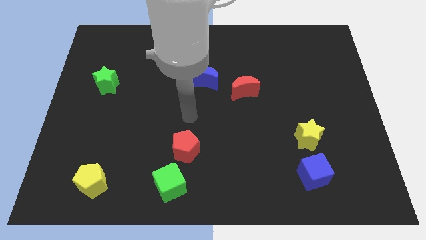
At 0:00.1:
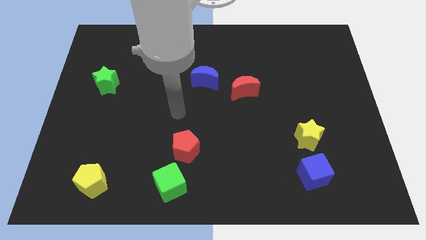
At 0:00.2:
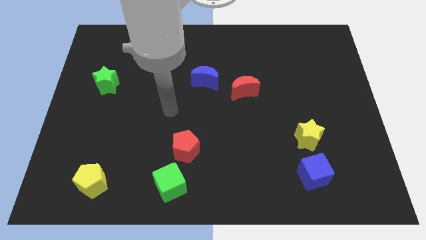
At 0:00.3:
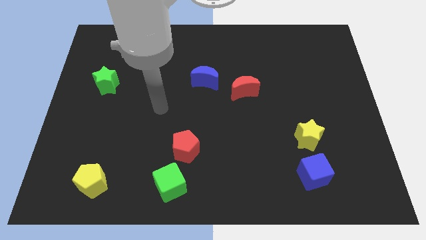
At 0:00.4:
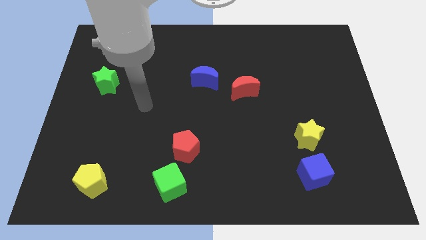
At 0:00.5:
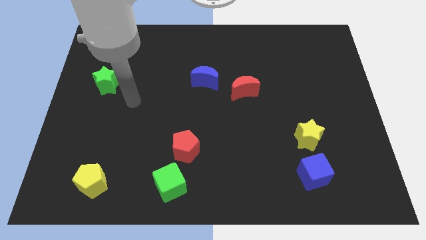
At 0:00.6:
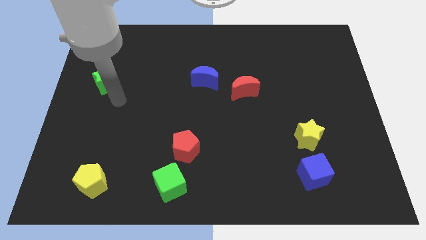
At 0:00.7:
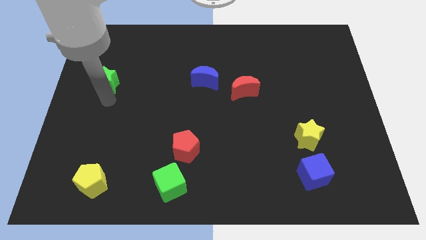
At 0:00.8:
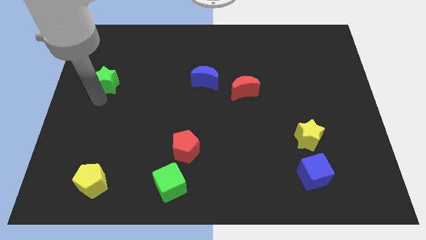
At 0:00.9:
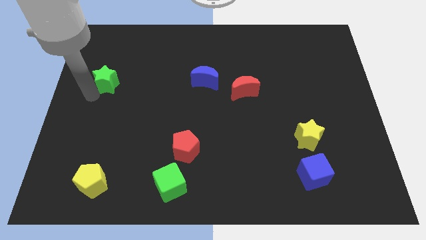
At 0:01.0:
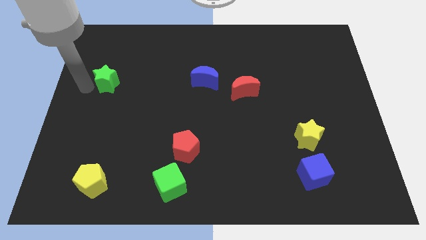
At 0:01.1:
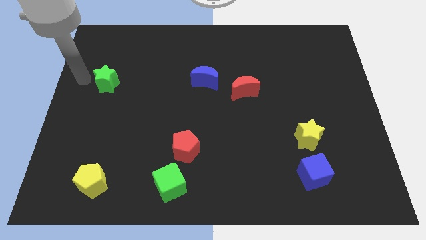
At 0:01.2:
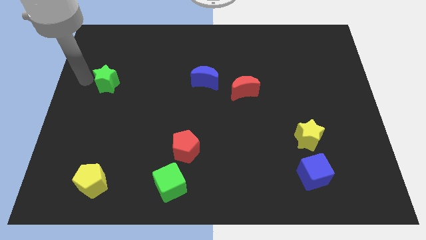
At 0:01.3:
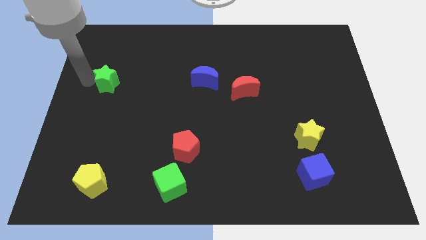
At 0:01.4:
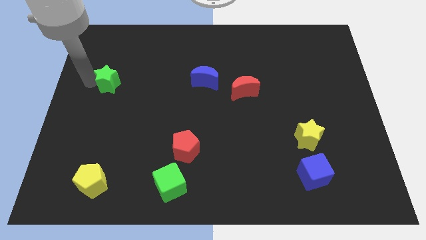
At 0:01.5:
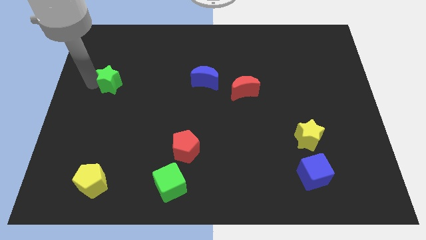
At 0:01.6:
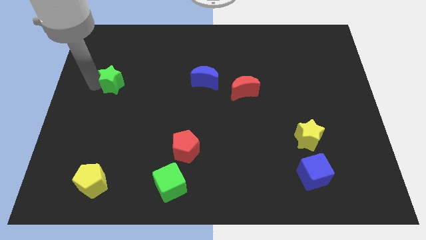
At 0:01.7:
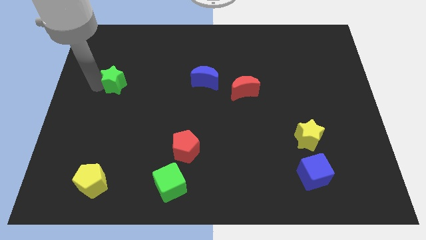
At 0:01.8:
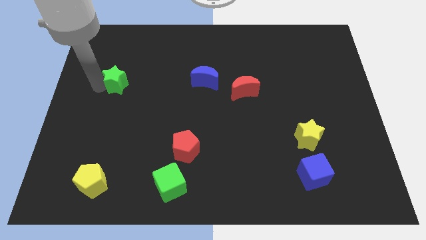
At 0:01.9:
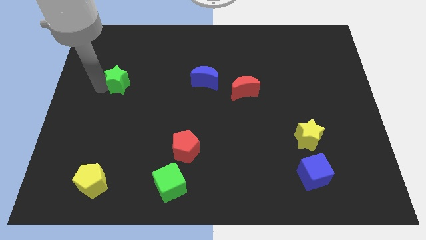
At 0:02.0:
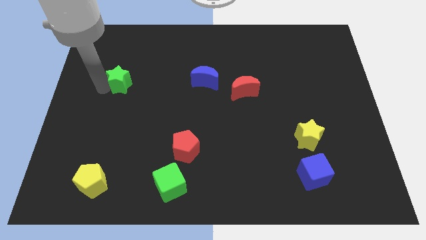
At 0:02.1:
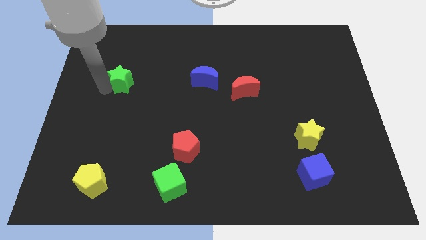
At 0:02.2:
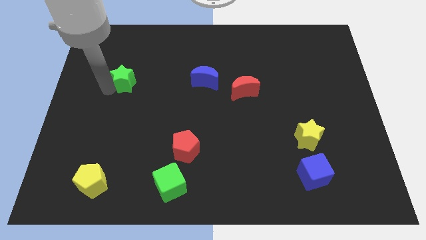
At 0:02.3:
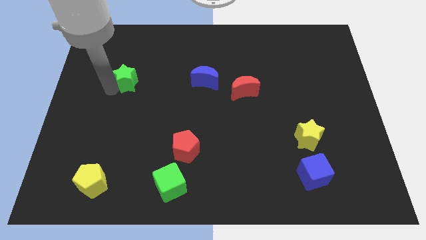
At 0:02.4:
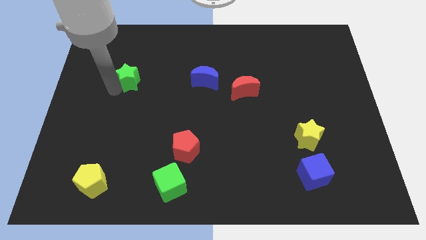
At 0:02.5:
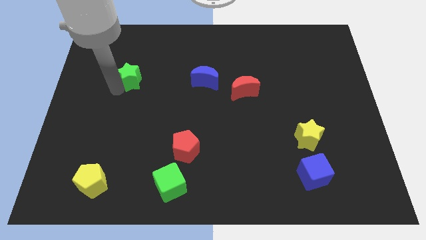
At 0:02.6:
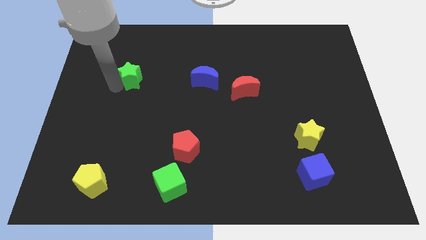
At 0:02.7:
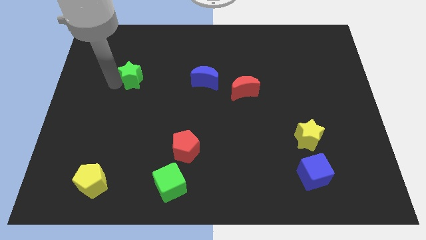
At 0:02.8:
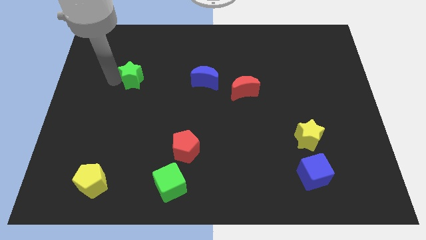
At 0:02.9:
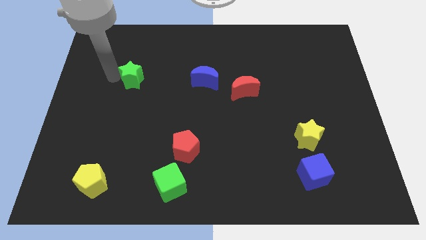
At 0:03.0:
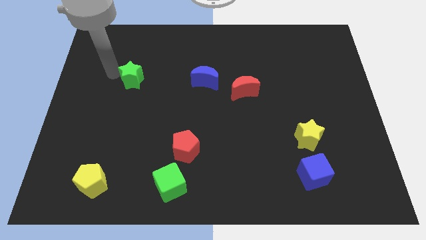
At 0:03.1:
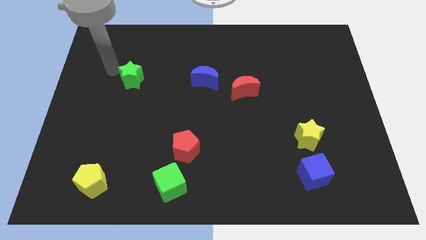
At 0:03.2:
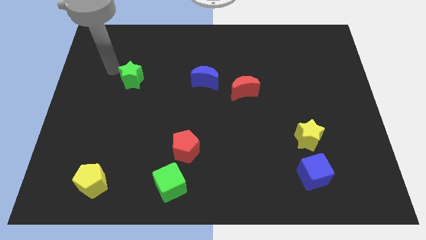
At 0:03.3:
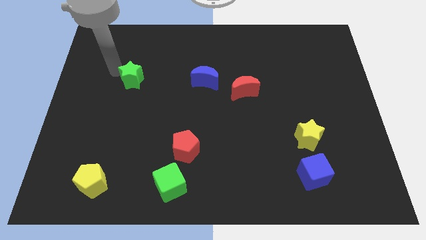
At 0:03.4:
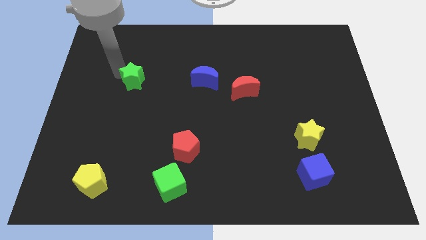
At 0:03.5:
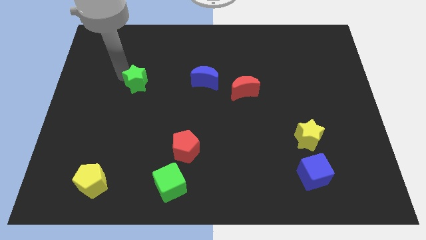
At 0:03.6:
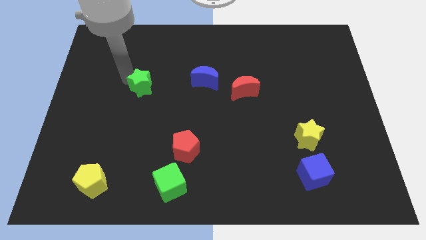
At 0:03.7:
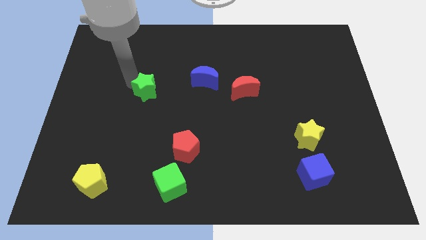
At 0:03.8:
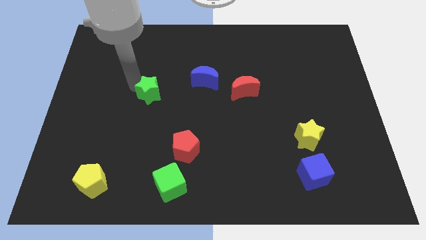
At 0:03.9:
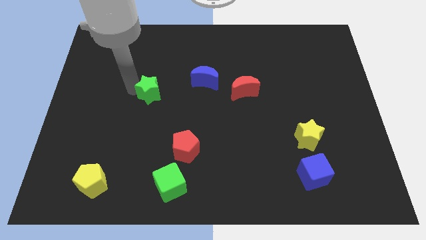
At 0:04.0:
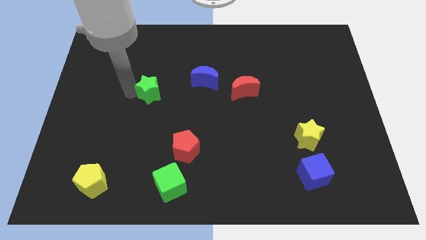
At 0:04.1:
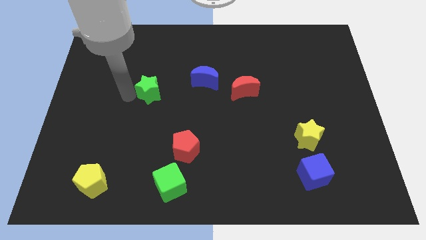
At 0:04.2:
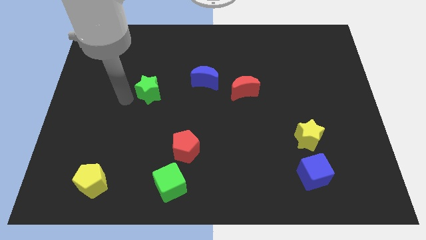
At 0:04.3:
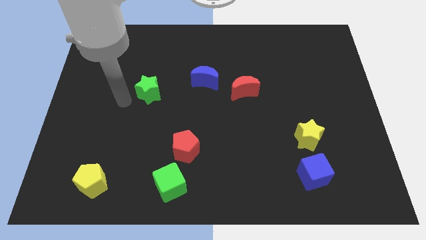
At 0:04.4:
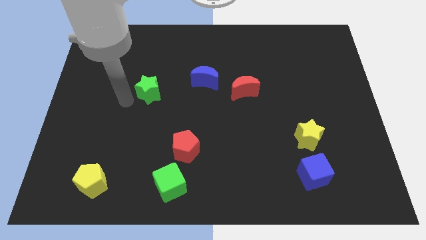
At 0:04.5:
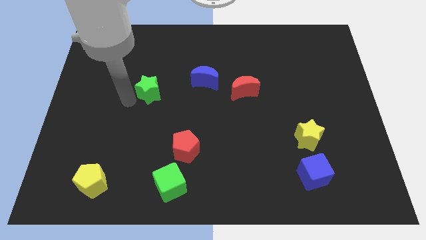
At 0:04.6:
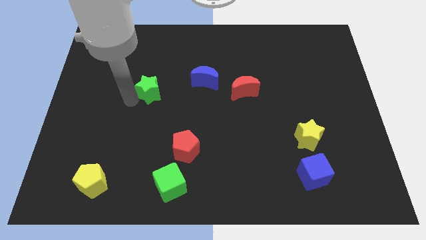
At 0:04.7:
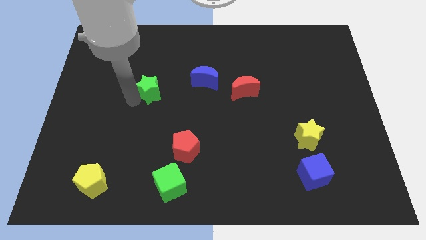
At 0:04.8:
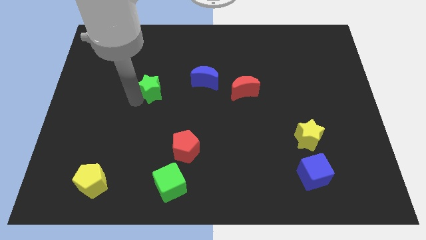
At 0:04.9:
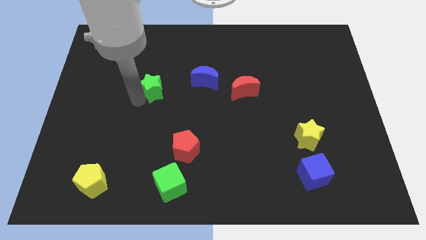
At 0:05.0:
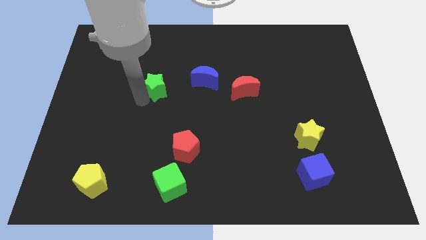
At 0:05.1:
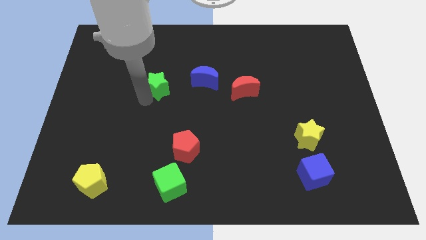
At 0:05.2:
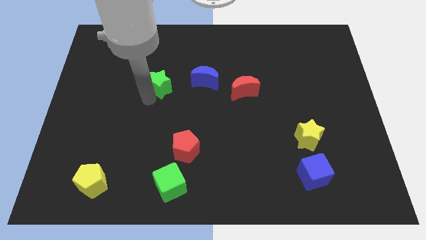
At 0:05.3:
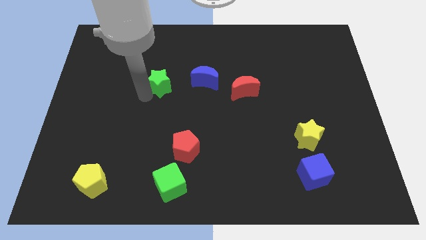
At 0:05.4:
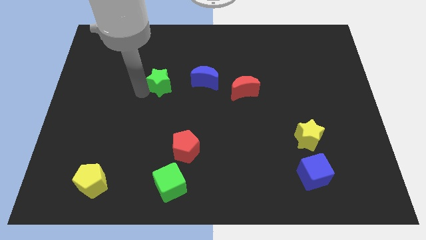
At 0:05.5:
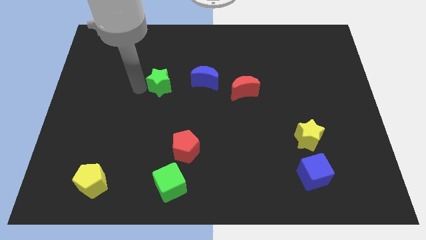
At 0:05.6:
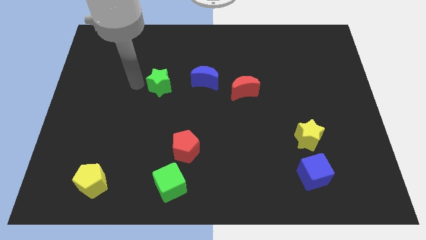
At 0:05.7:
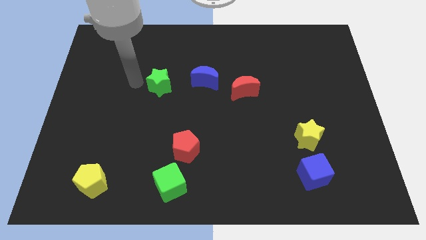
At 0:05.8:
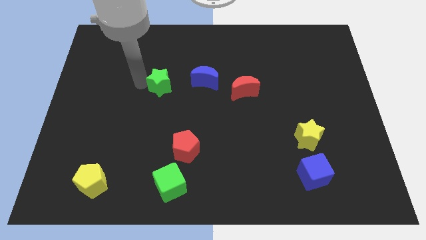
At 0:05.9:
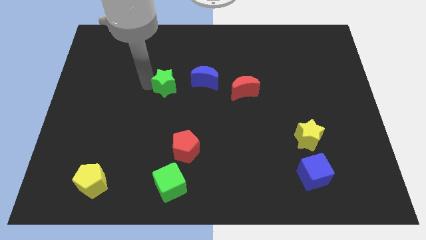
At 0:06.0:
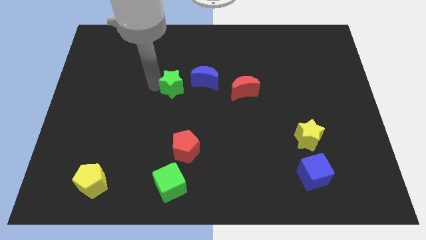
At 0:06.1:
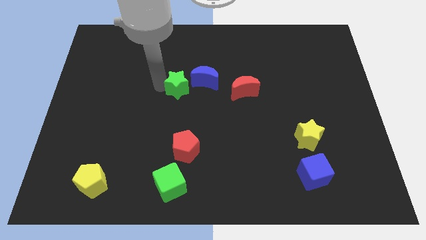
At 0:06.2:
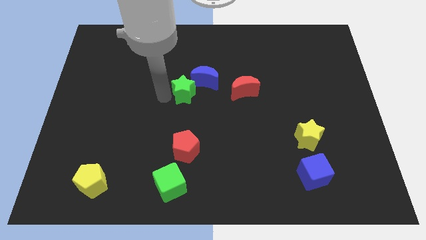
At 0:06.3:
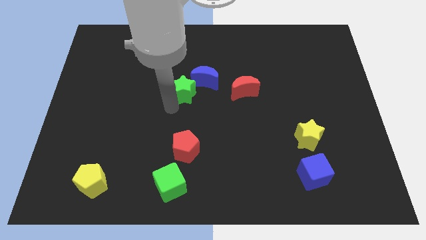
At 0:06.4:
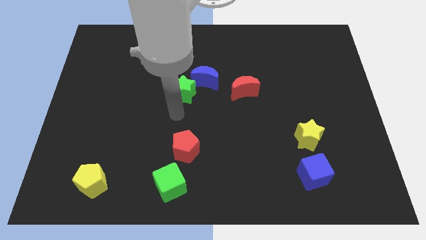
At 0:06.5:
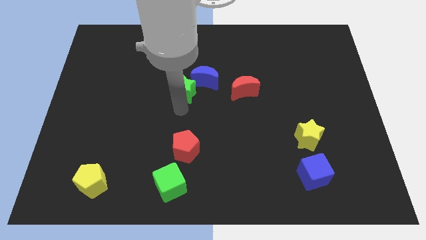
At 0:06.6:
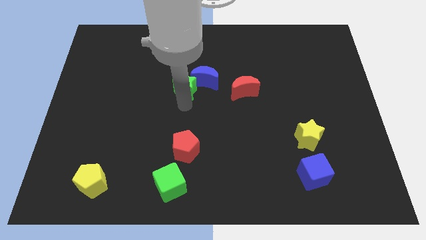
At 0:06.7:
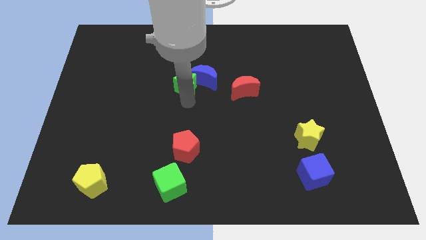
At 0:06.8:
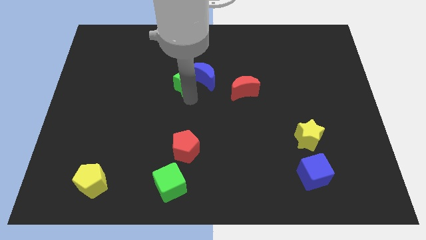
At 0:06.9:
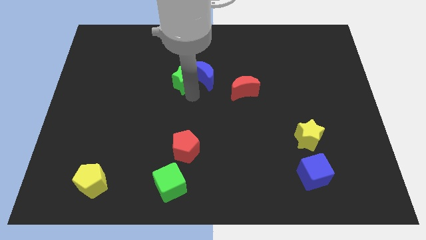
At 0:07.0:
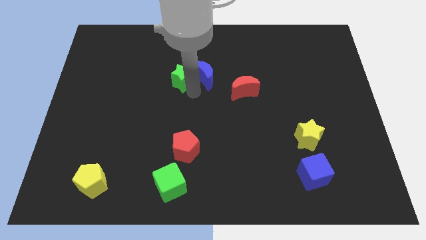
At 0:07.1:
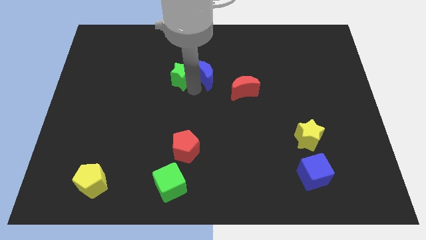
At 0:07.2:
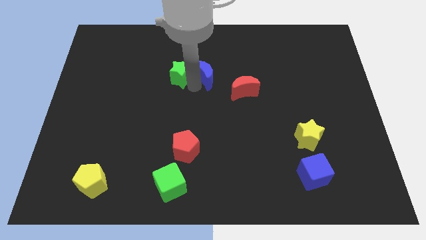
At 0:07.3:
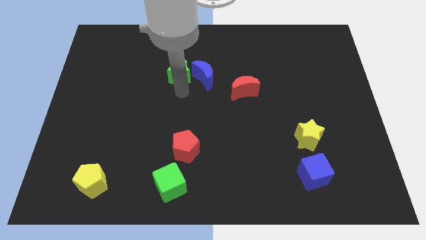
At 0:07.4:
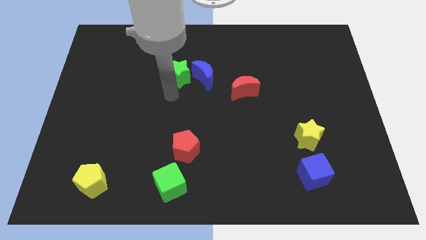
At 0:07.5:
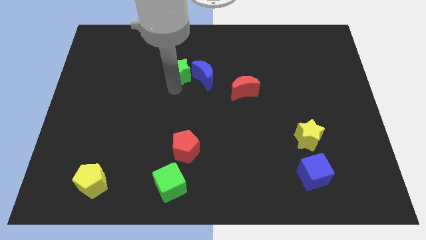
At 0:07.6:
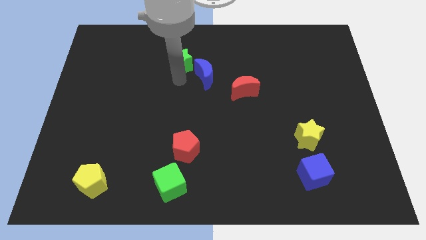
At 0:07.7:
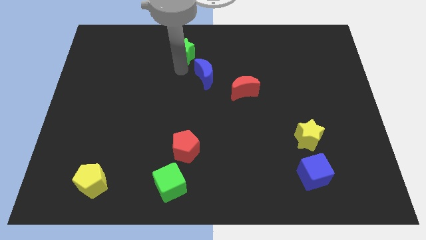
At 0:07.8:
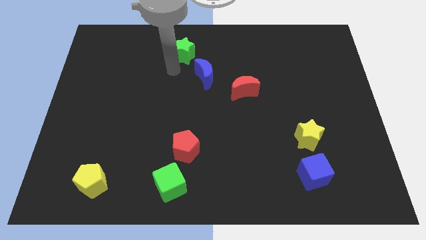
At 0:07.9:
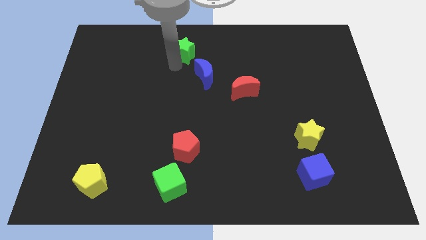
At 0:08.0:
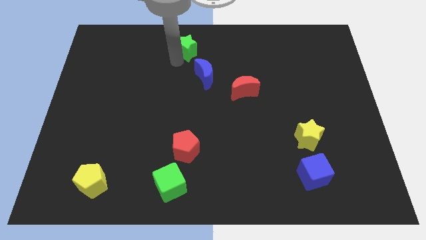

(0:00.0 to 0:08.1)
put the green star to the top
